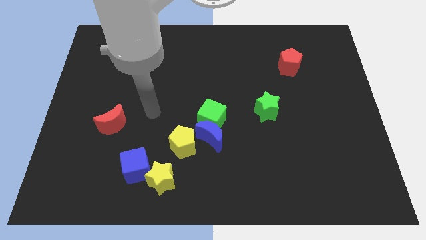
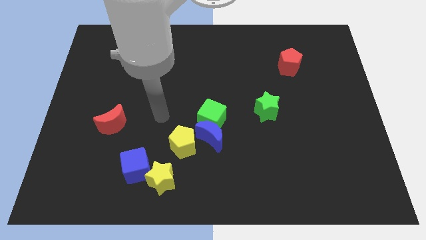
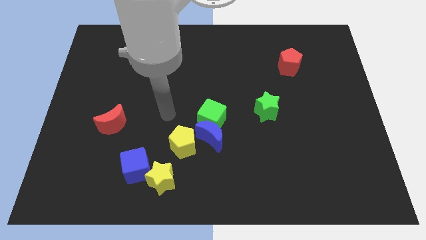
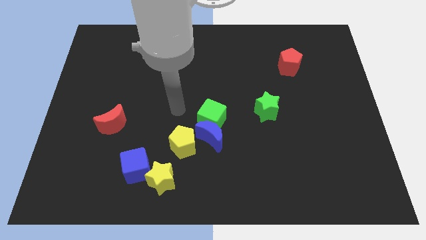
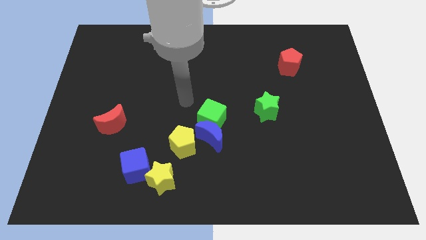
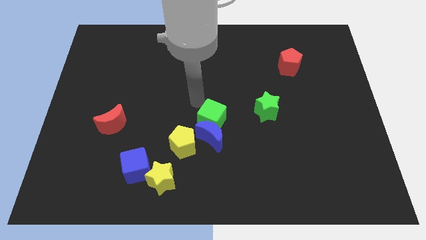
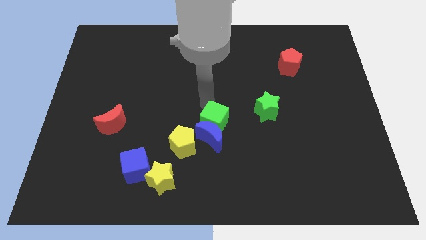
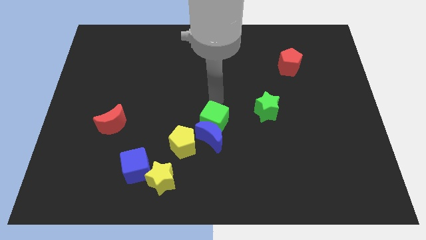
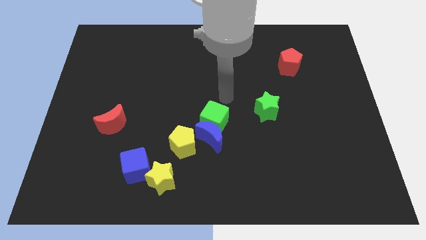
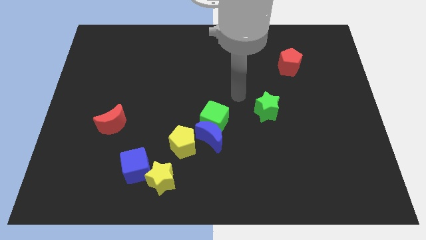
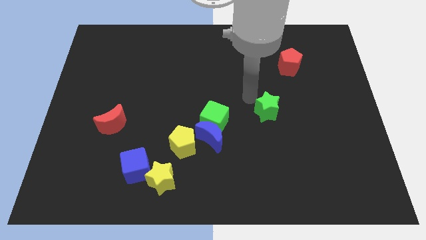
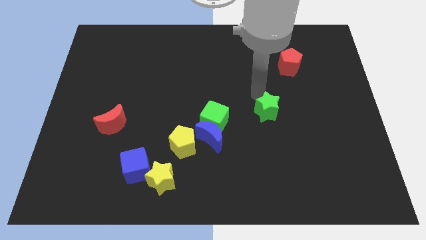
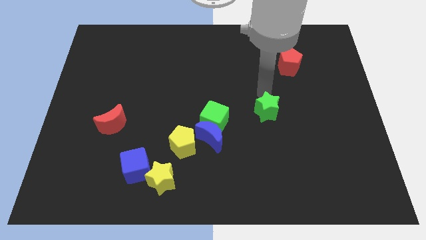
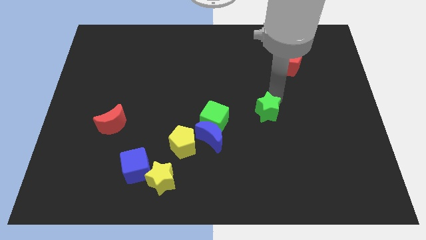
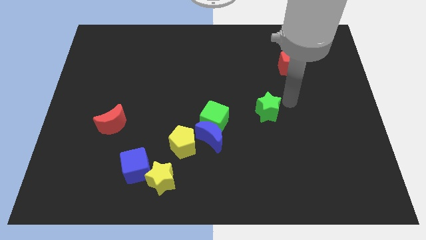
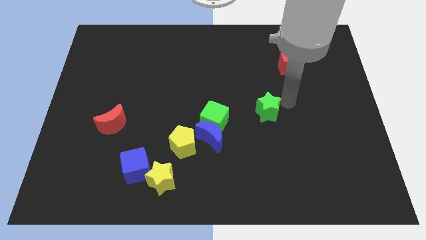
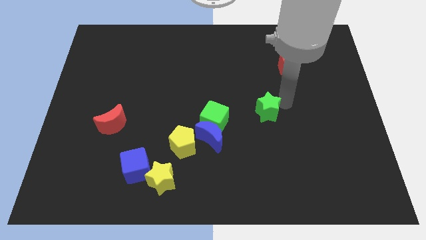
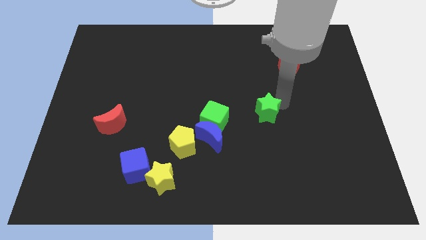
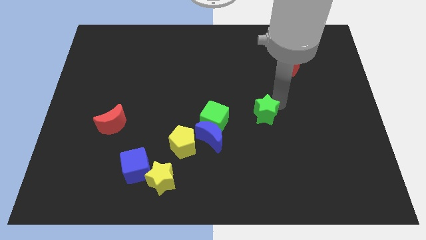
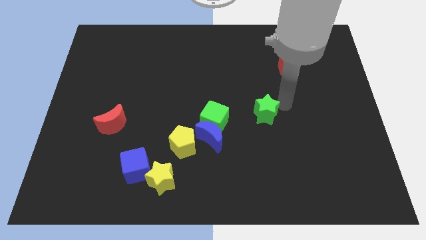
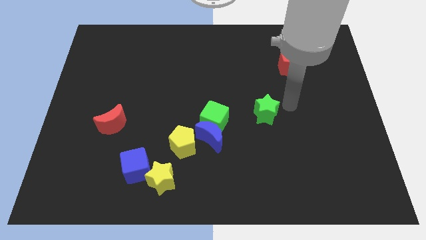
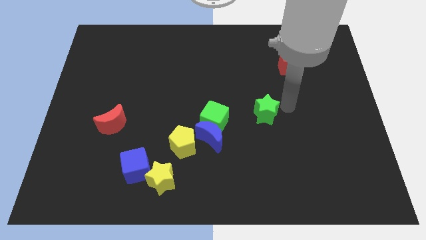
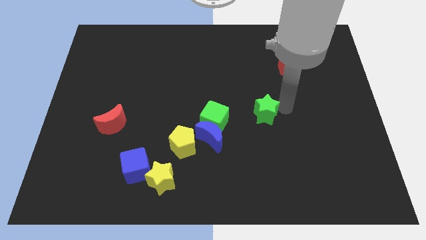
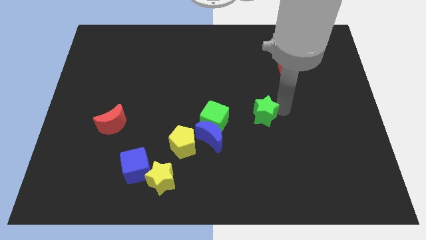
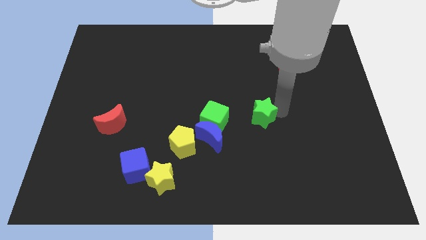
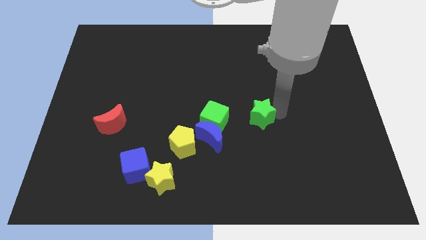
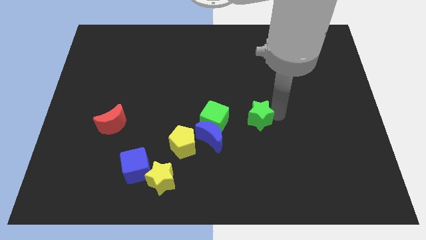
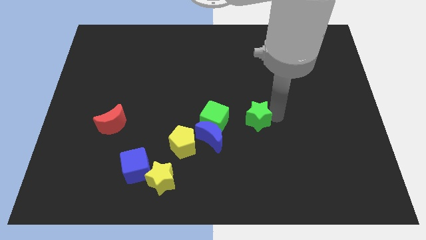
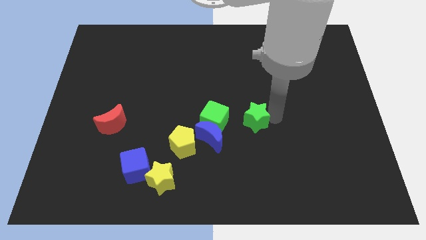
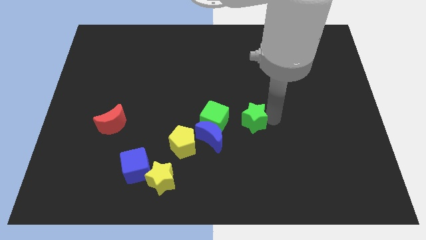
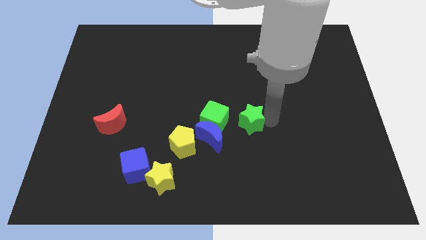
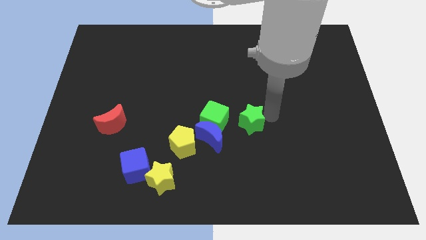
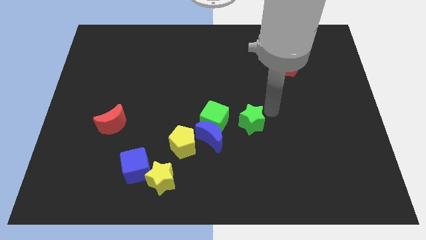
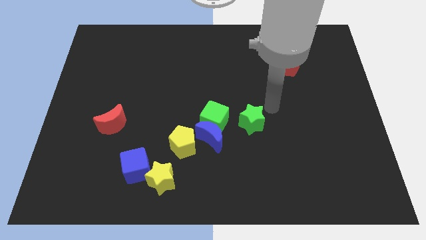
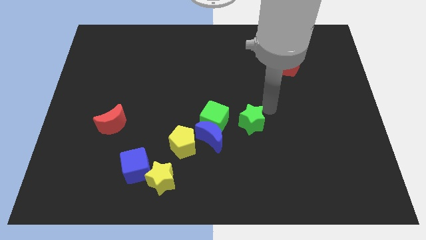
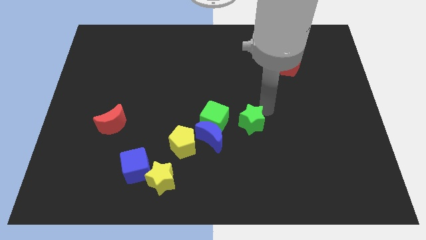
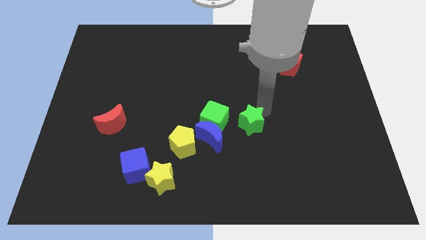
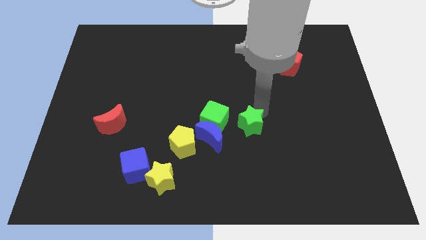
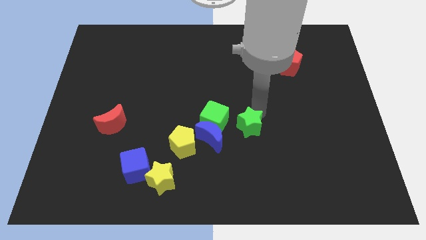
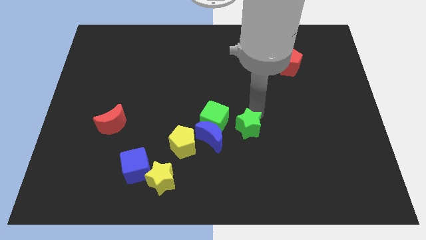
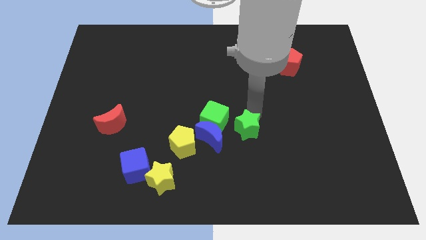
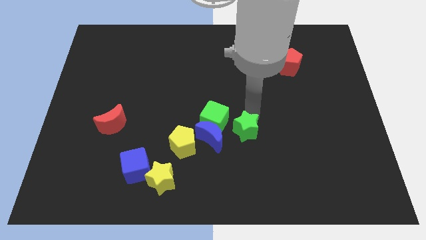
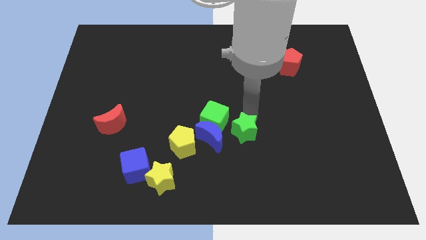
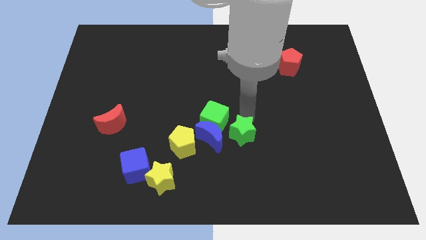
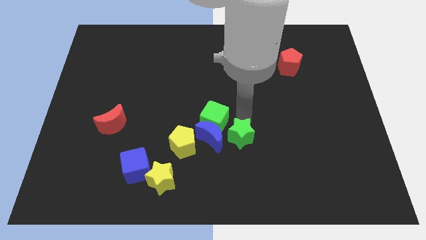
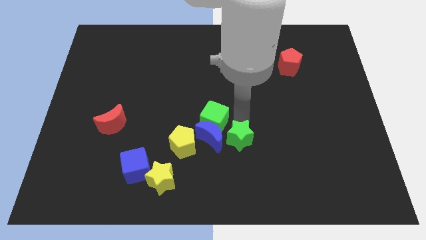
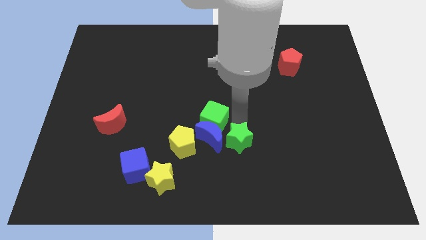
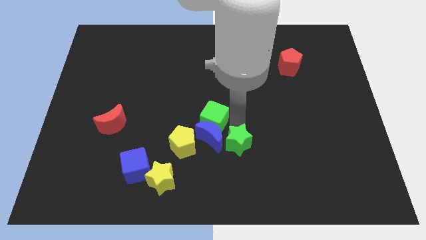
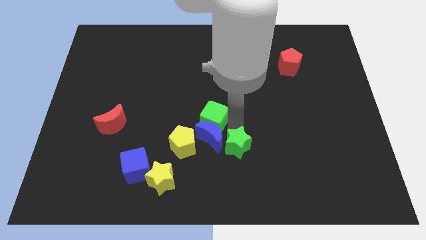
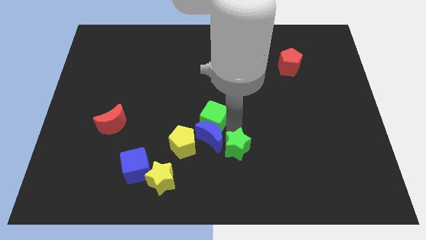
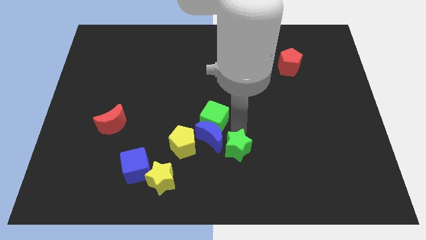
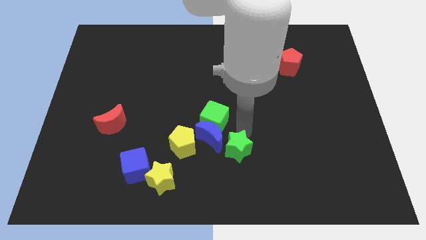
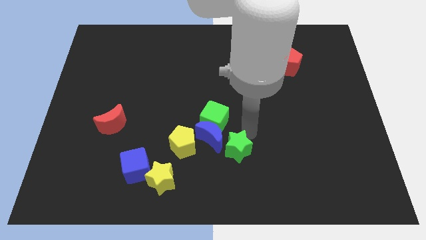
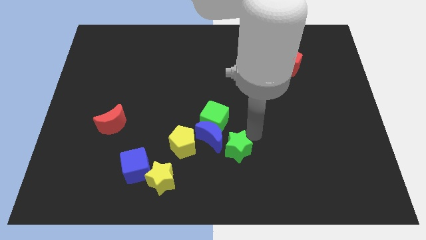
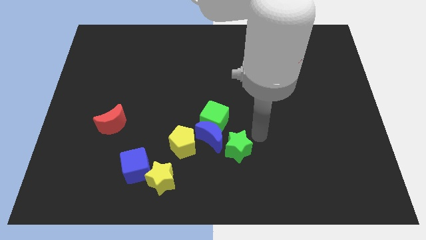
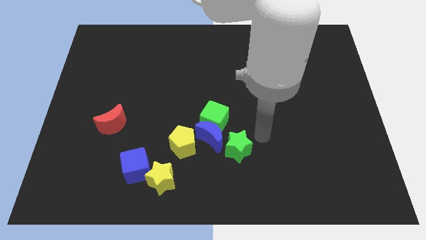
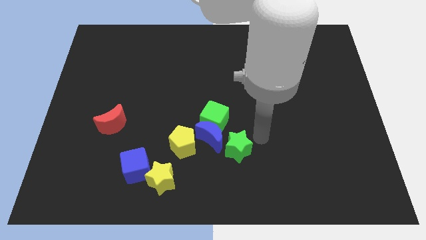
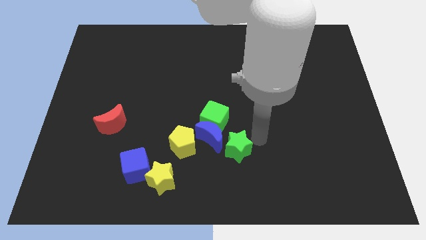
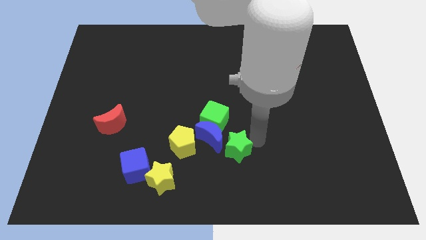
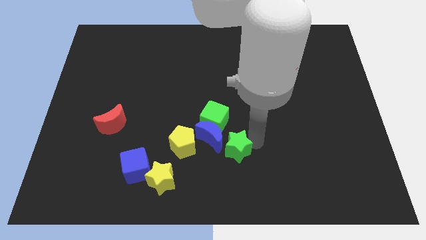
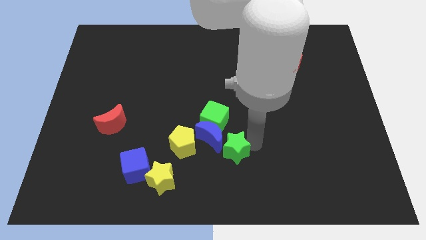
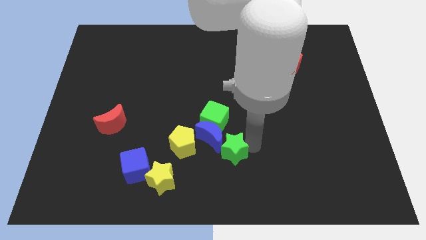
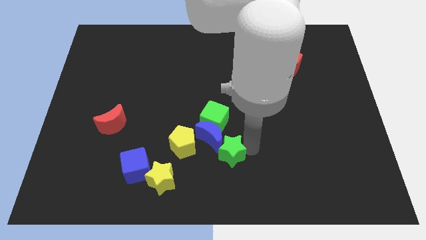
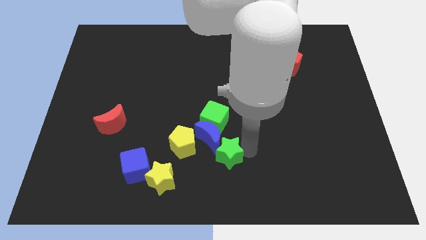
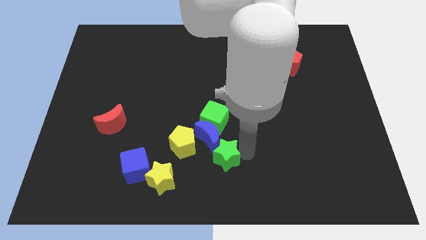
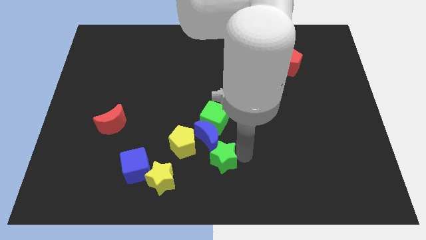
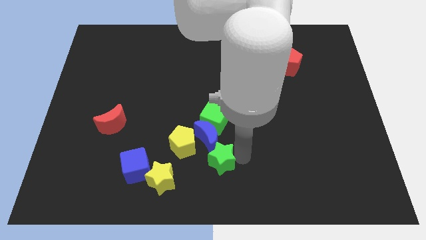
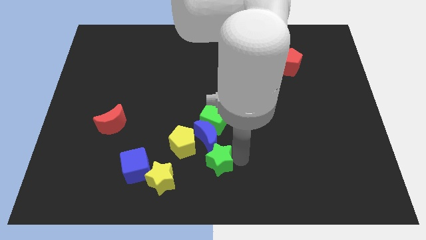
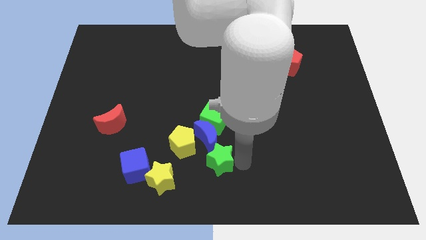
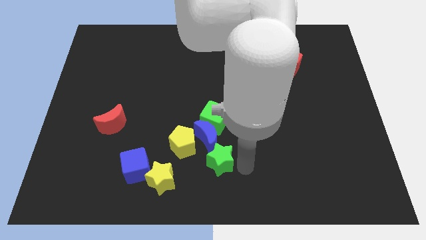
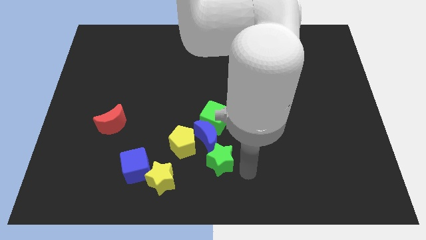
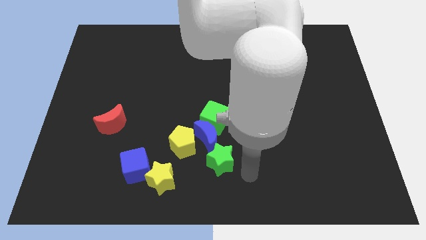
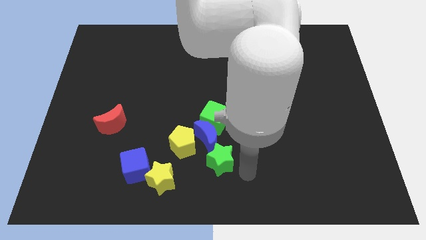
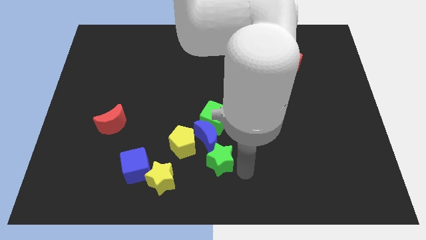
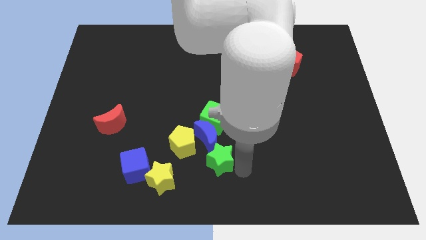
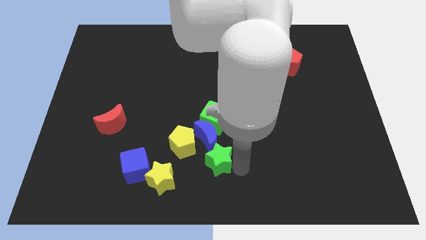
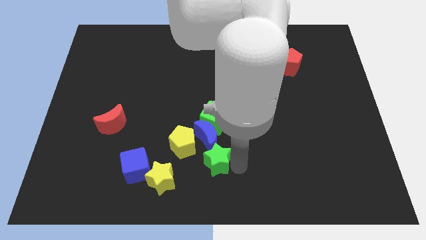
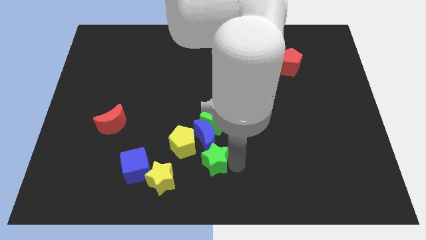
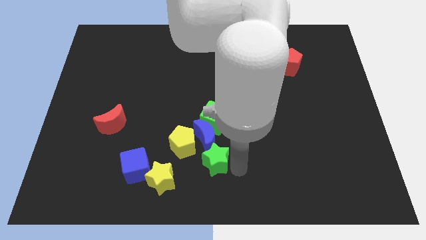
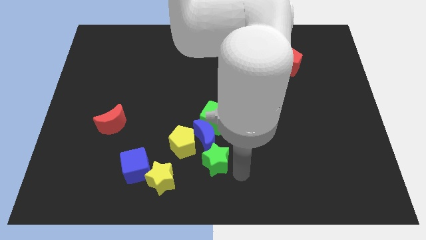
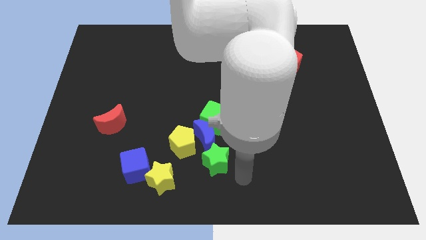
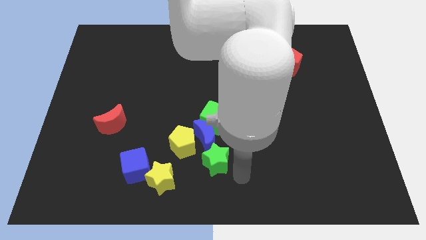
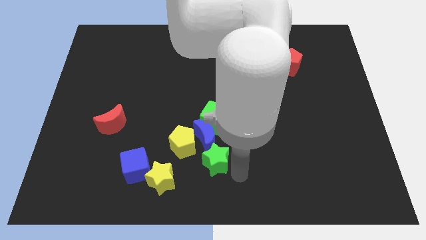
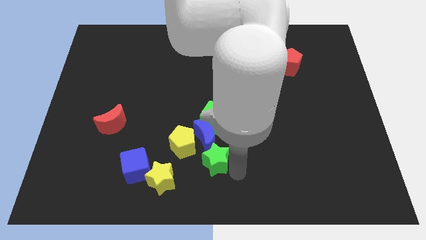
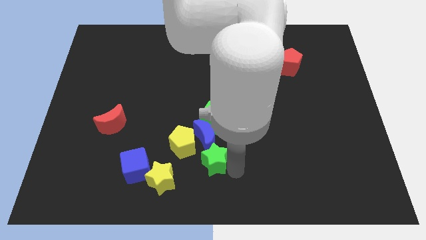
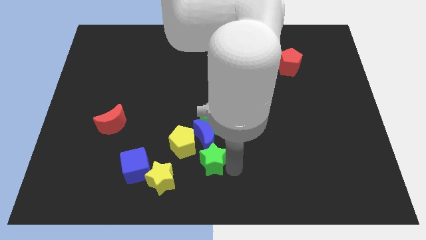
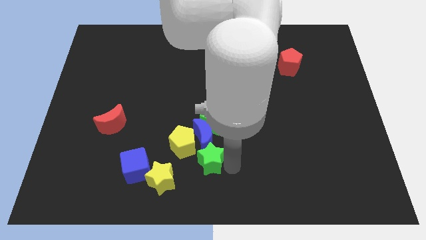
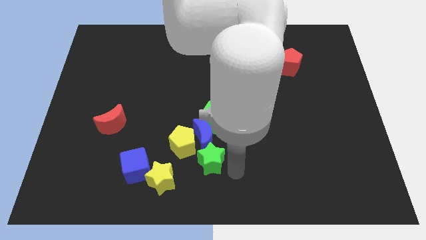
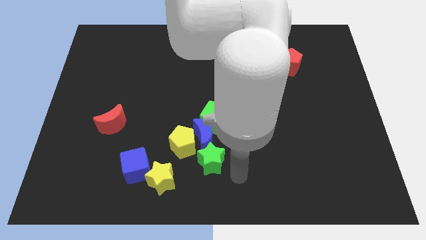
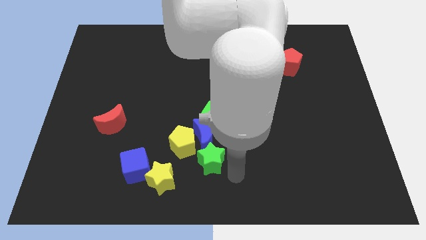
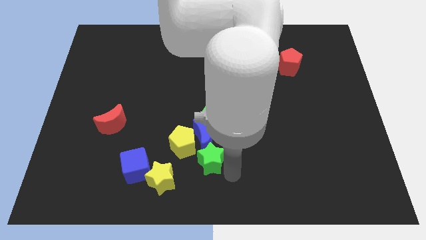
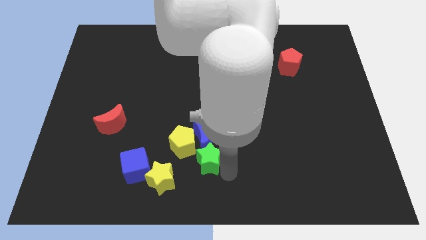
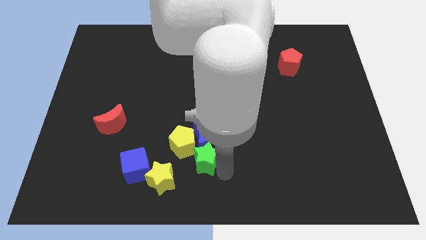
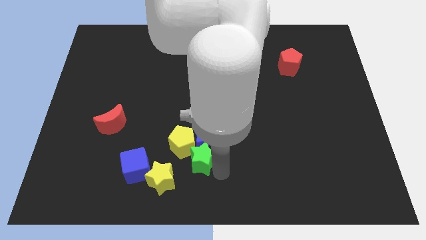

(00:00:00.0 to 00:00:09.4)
move the green star close to the yellow pentagon
